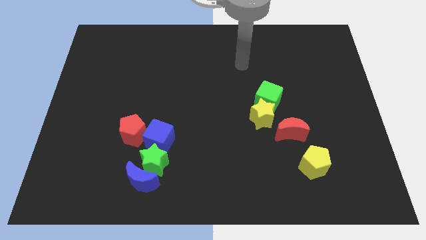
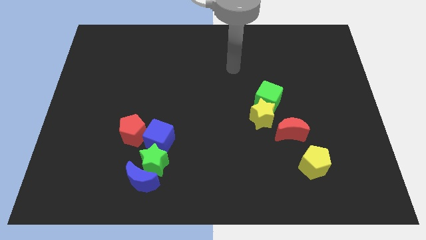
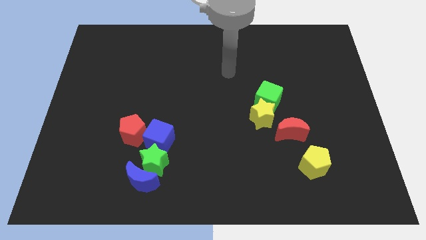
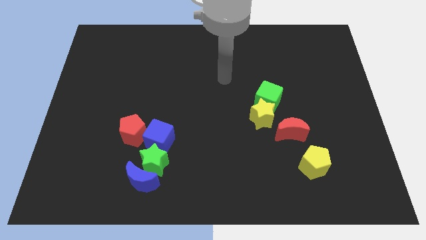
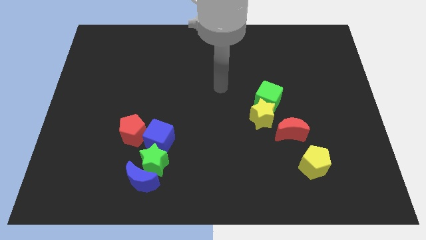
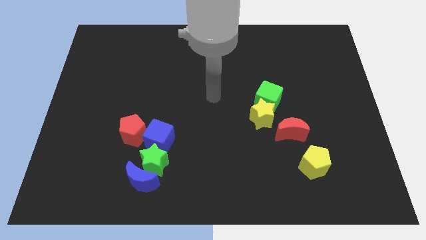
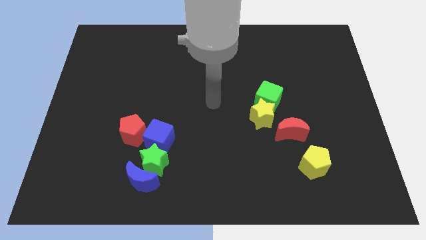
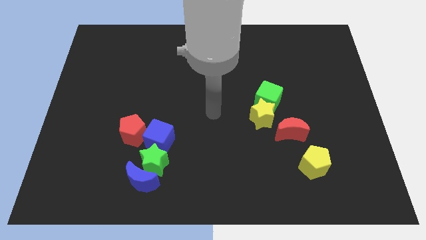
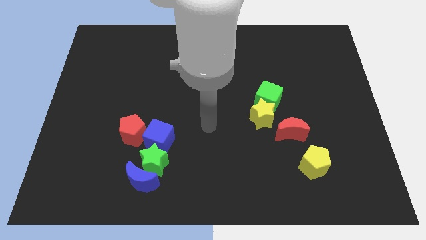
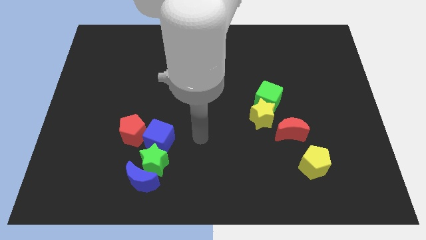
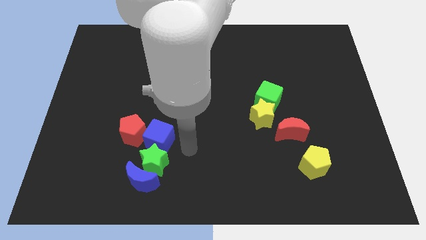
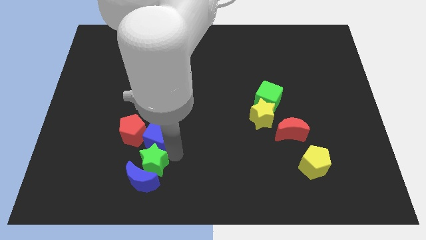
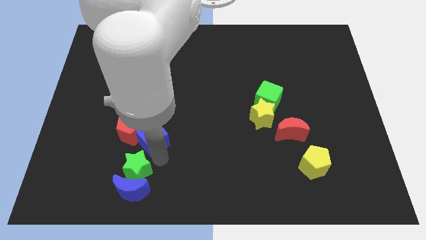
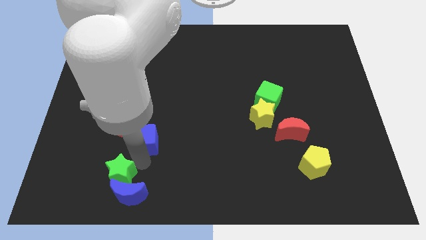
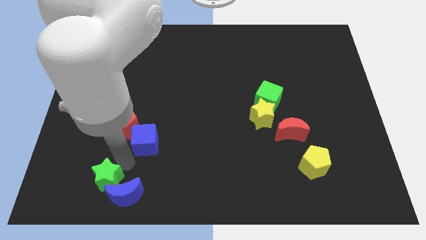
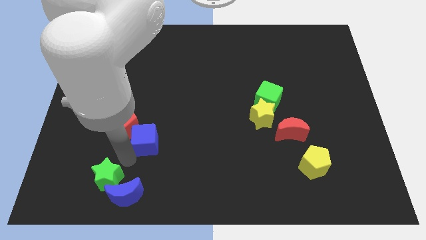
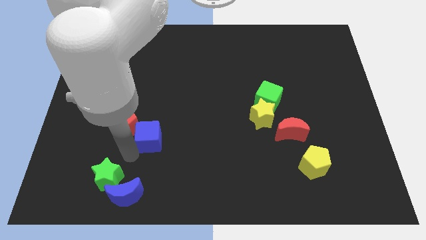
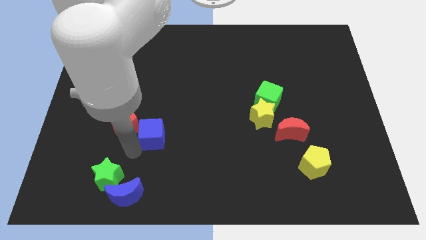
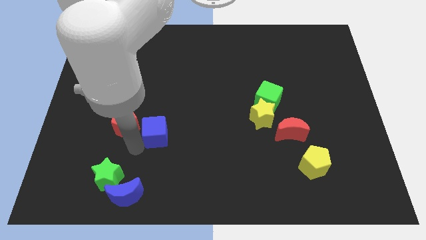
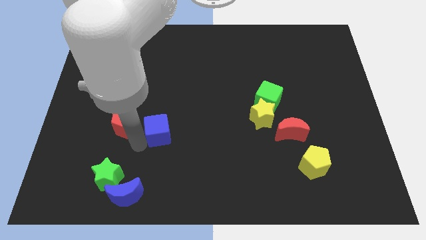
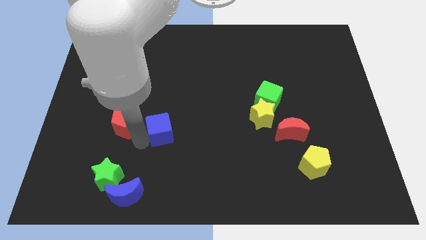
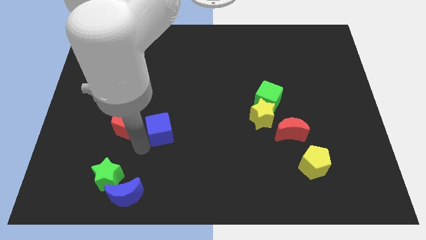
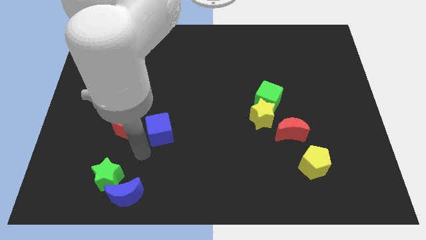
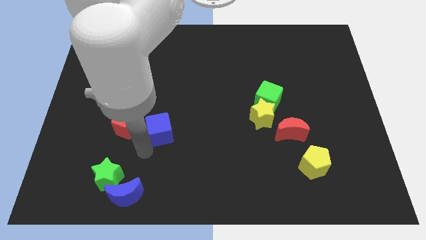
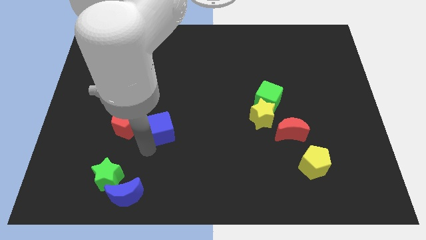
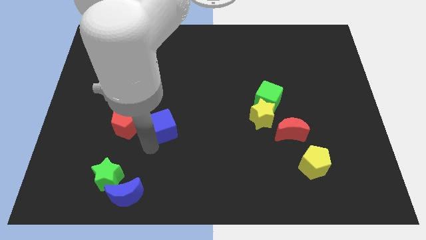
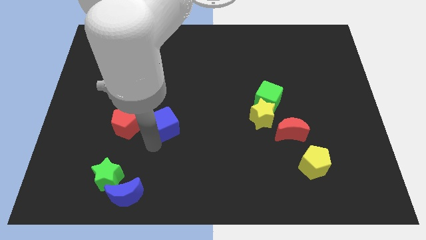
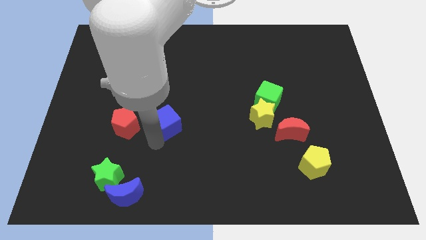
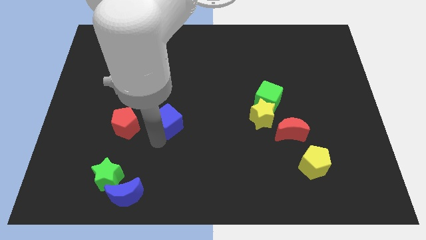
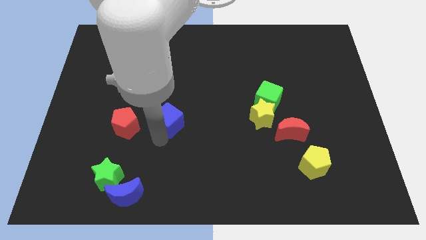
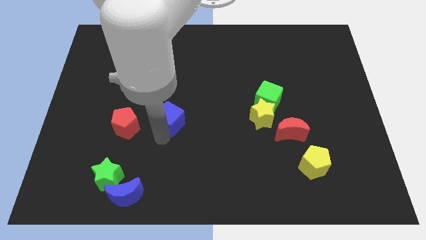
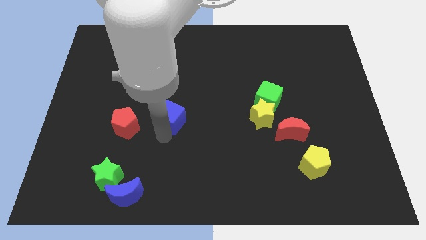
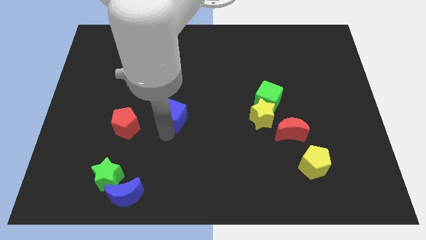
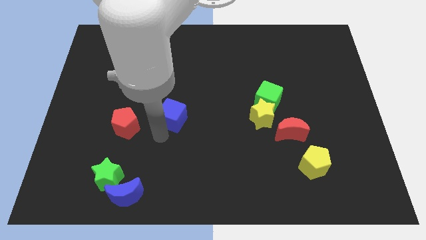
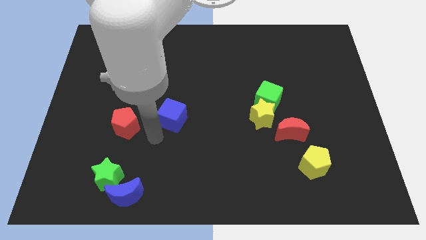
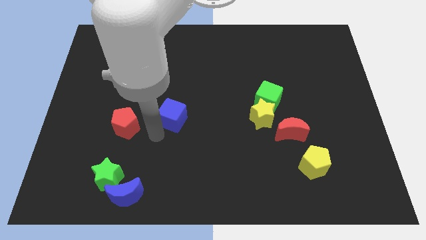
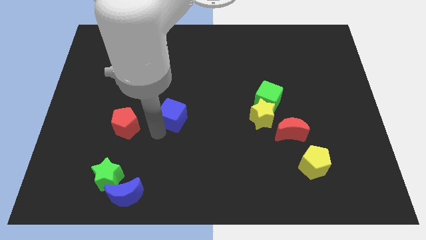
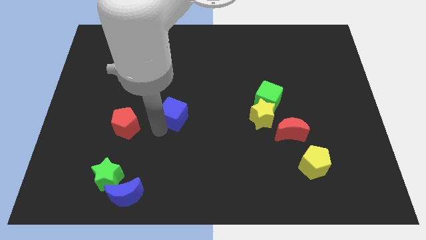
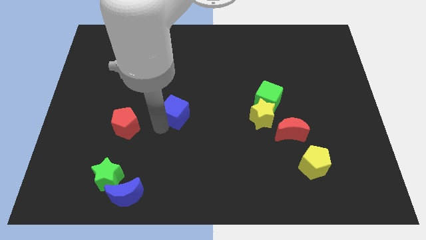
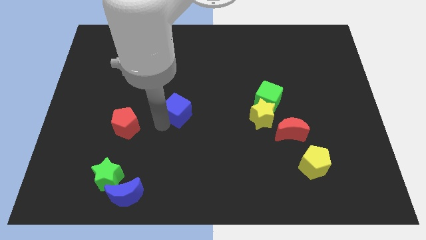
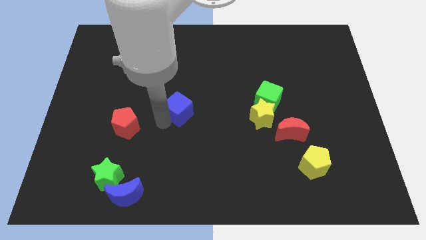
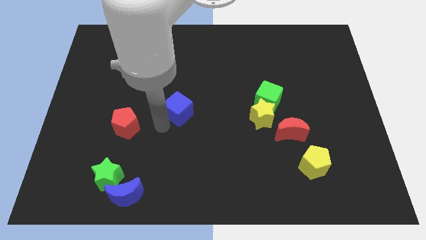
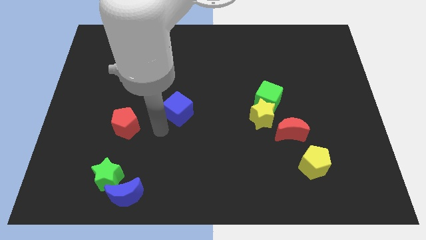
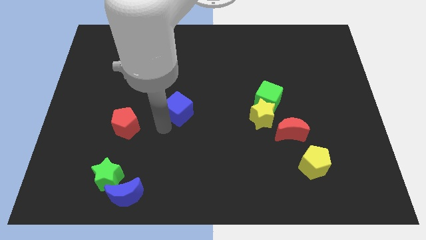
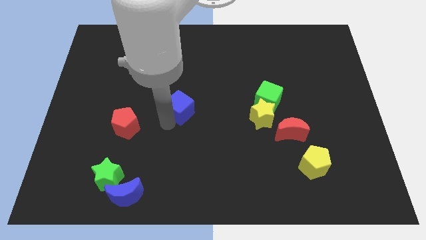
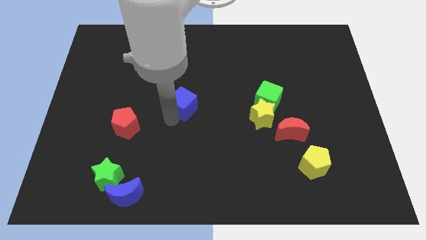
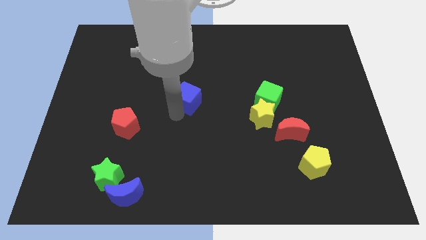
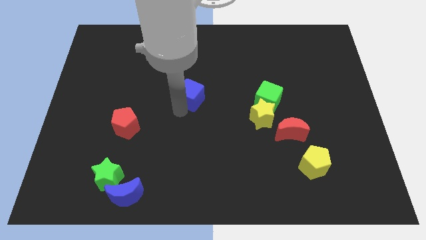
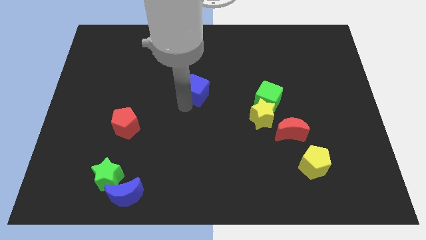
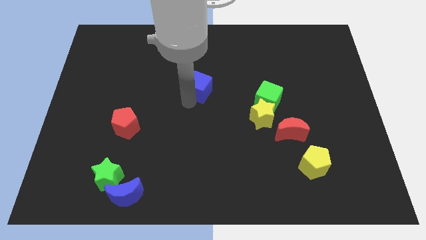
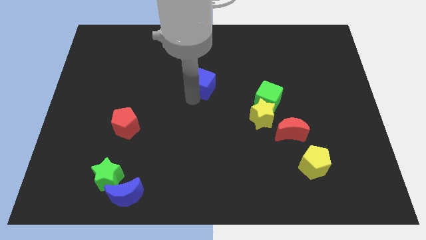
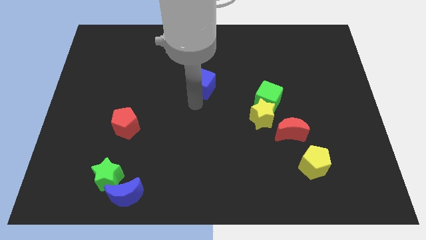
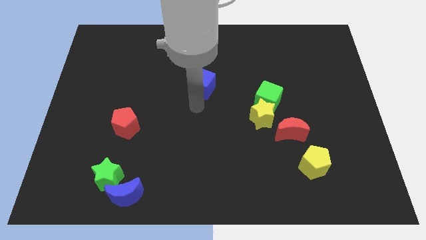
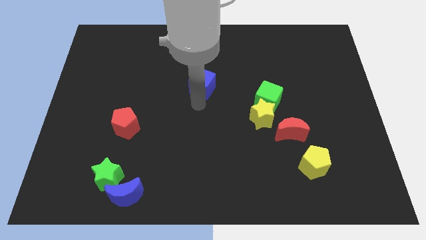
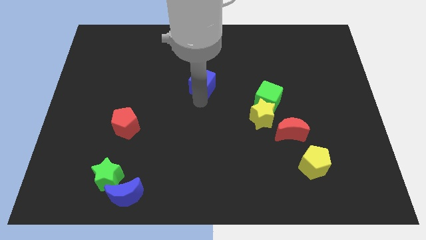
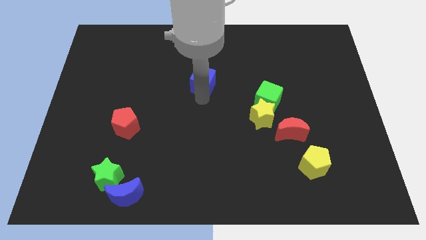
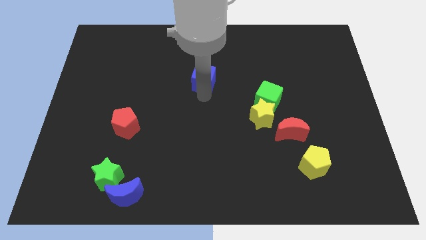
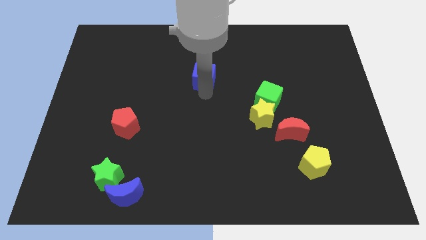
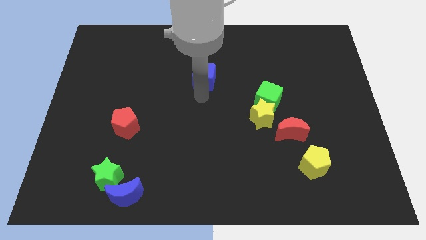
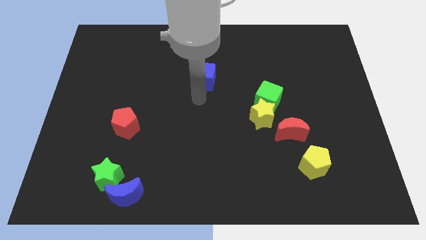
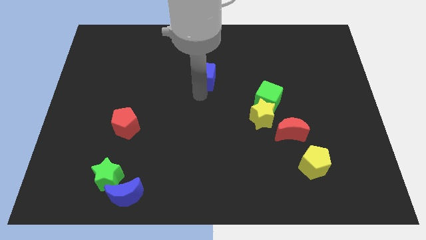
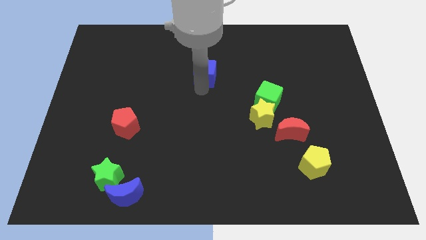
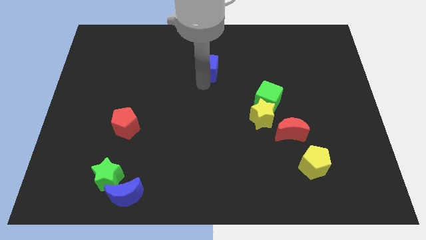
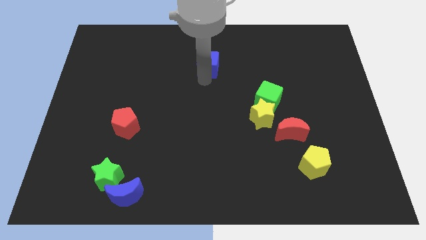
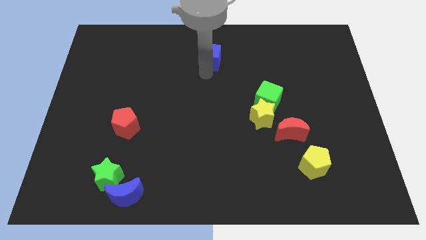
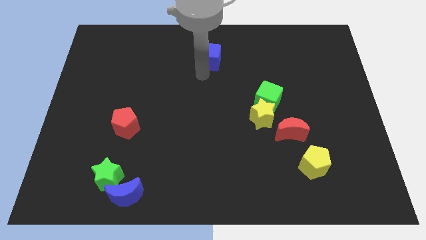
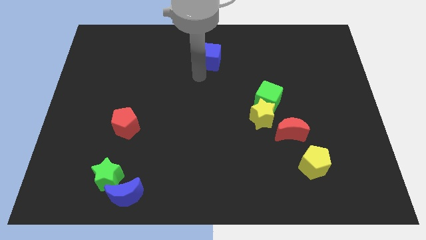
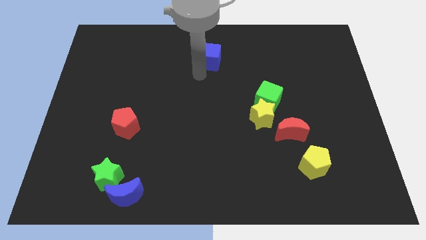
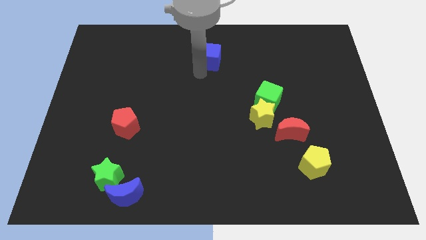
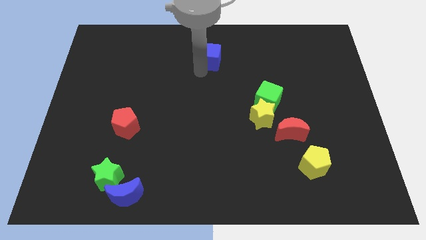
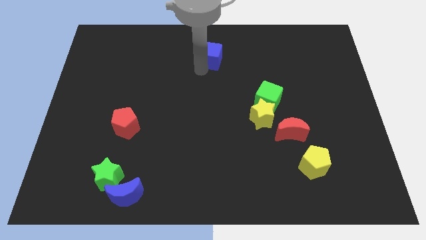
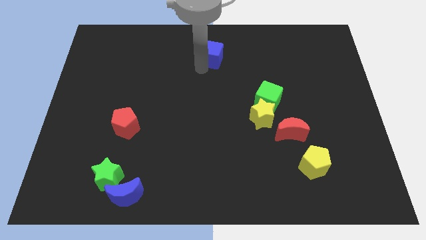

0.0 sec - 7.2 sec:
put the blue cube to the top side
